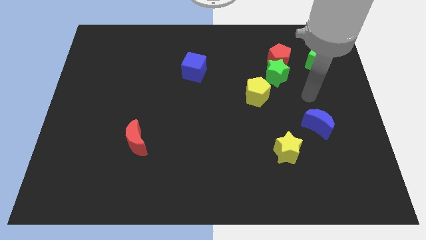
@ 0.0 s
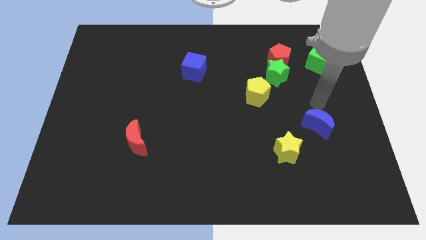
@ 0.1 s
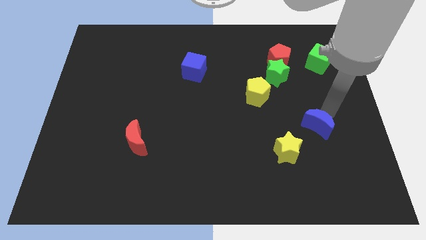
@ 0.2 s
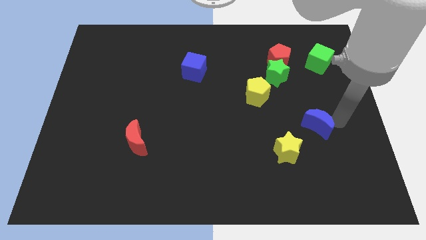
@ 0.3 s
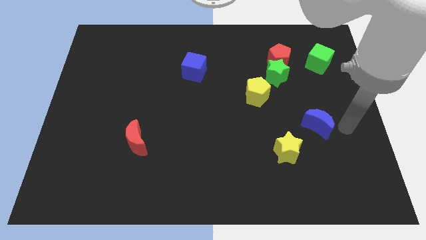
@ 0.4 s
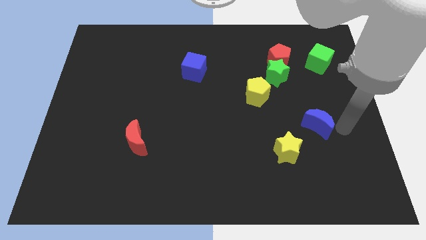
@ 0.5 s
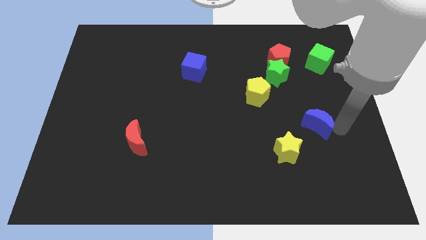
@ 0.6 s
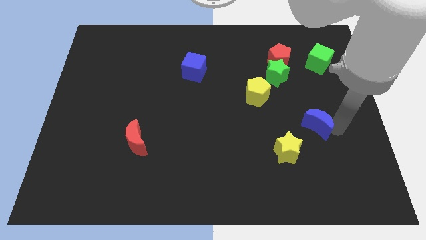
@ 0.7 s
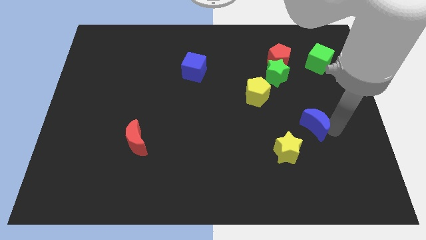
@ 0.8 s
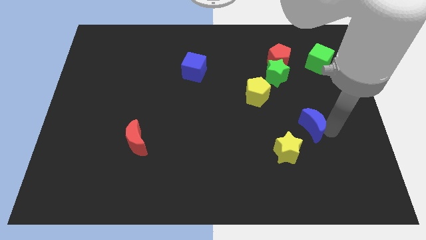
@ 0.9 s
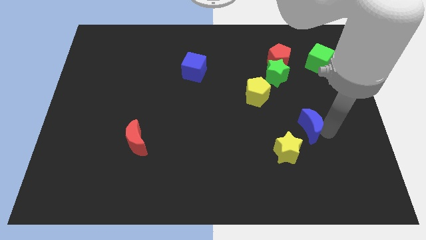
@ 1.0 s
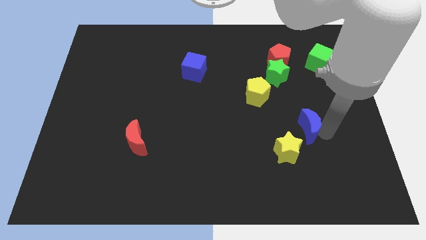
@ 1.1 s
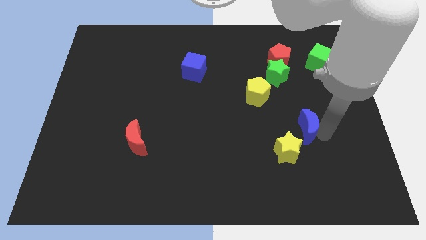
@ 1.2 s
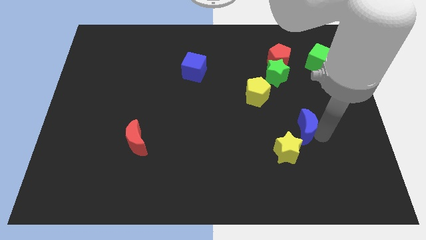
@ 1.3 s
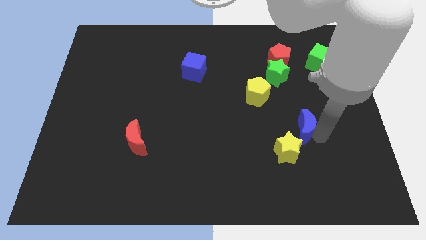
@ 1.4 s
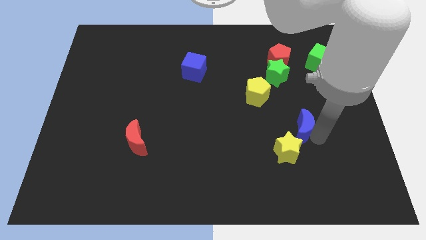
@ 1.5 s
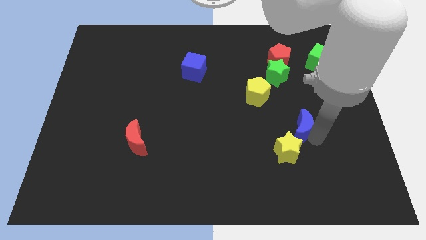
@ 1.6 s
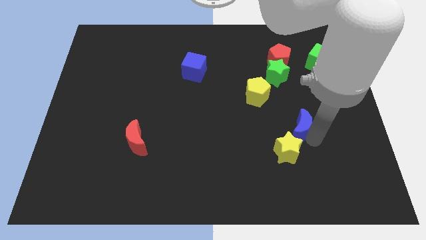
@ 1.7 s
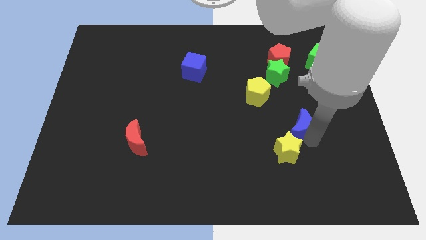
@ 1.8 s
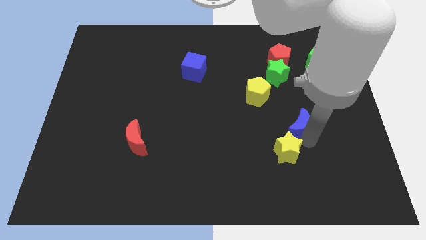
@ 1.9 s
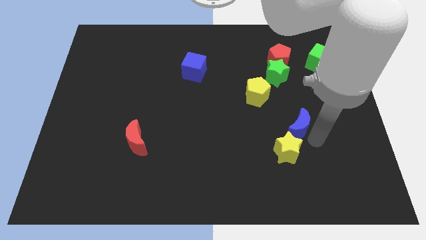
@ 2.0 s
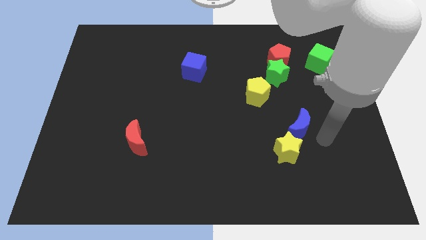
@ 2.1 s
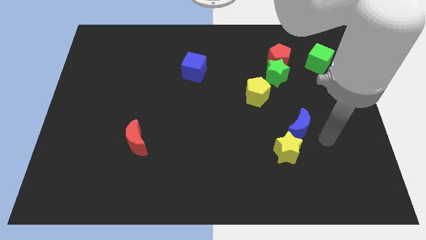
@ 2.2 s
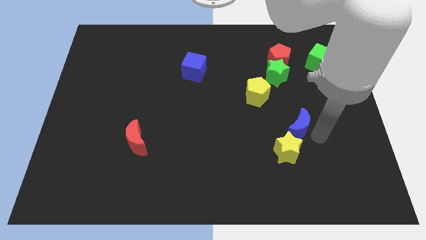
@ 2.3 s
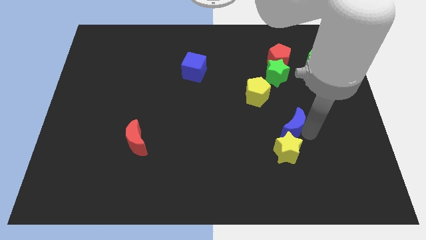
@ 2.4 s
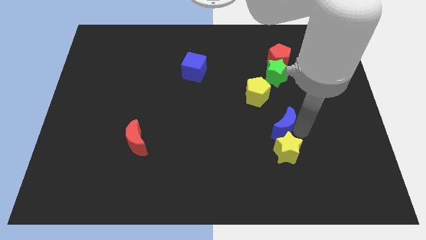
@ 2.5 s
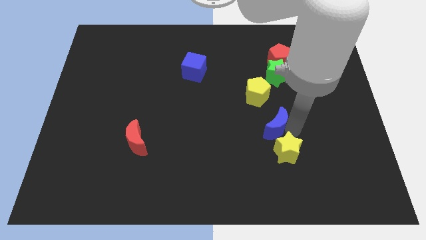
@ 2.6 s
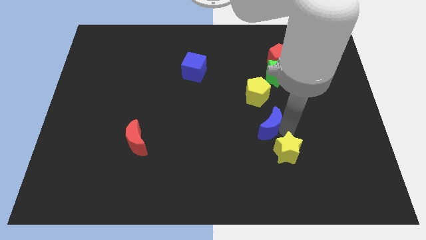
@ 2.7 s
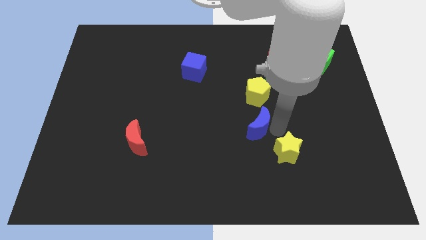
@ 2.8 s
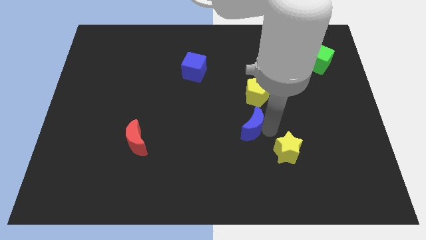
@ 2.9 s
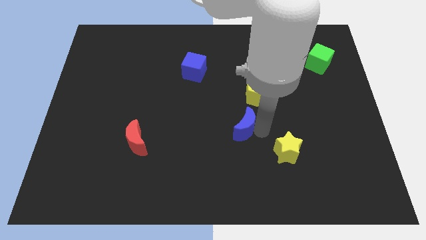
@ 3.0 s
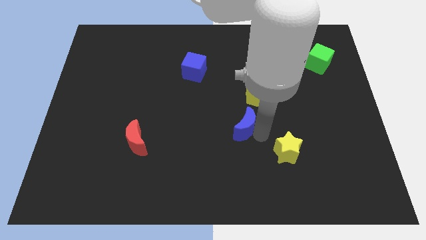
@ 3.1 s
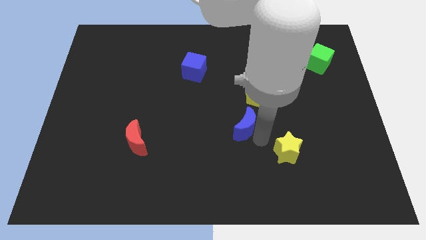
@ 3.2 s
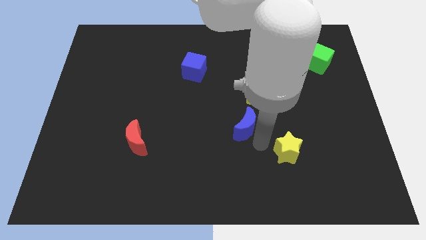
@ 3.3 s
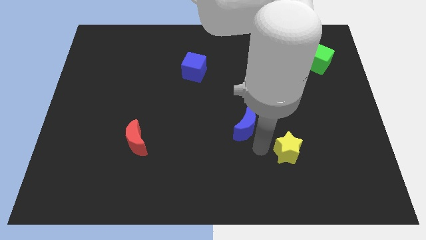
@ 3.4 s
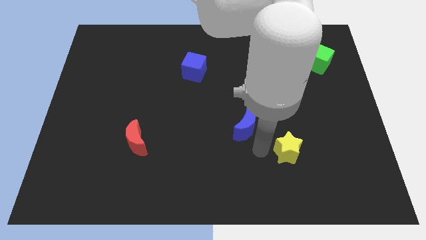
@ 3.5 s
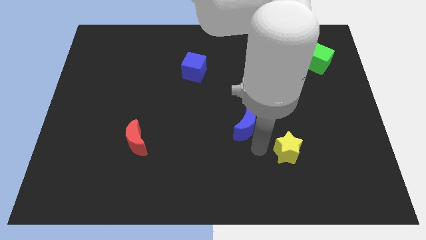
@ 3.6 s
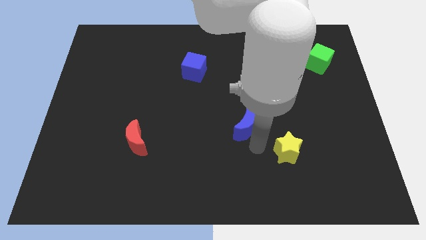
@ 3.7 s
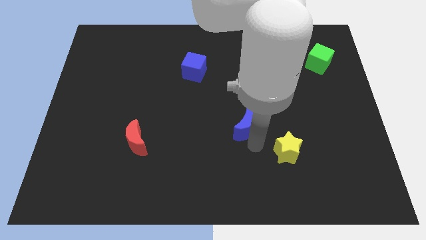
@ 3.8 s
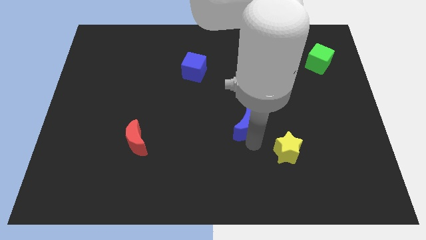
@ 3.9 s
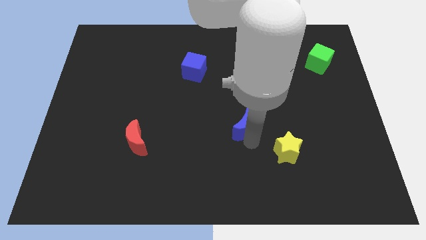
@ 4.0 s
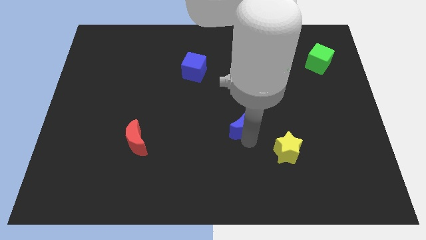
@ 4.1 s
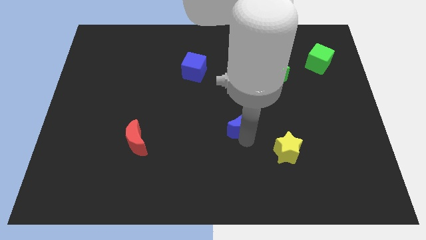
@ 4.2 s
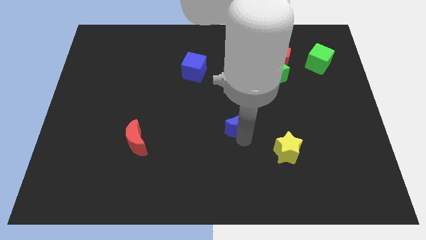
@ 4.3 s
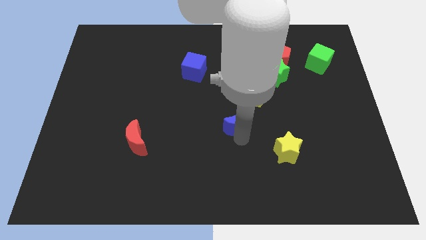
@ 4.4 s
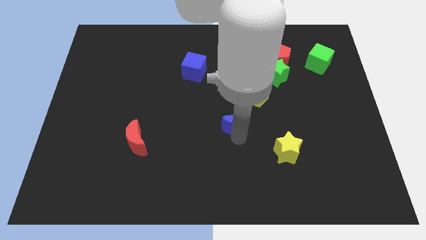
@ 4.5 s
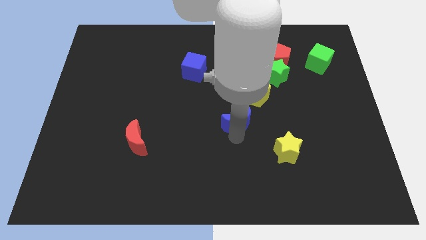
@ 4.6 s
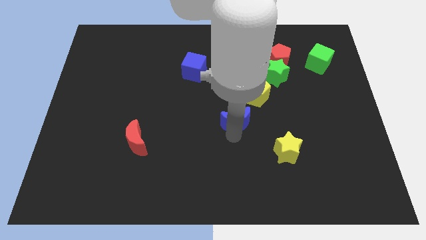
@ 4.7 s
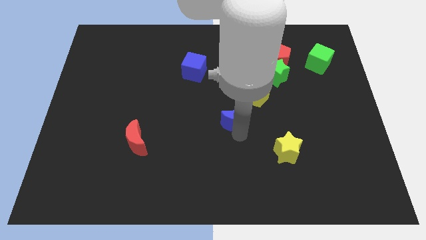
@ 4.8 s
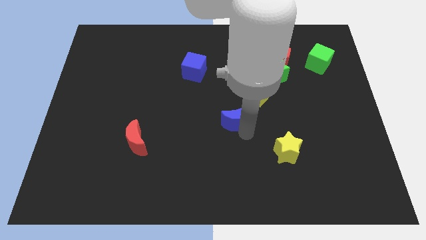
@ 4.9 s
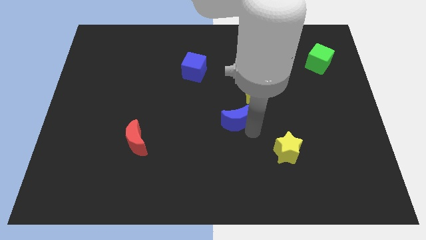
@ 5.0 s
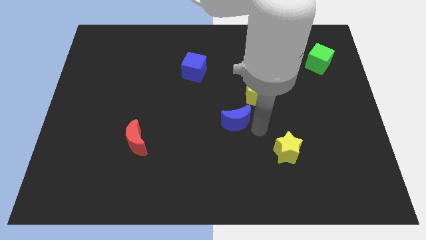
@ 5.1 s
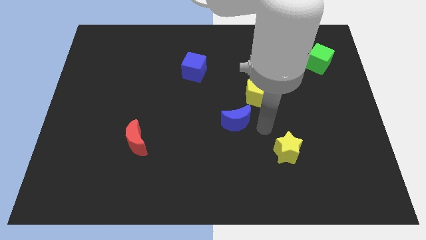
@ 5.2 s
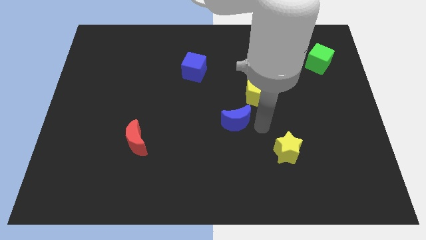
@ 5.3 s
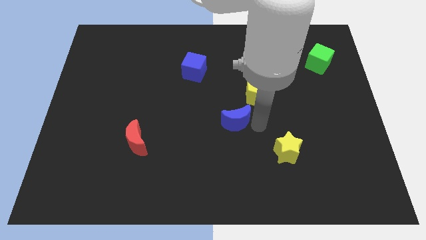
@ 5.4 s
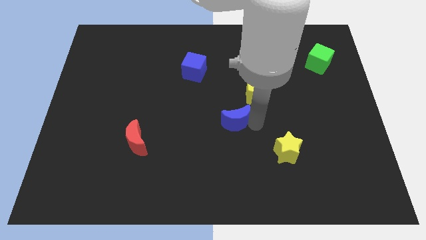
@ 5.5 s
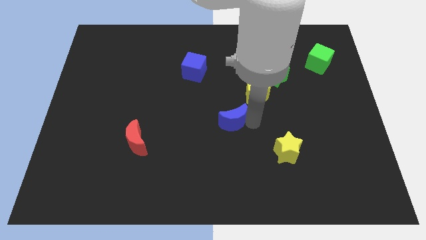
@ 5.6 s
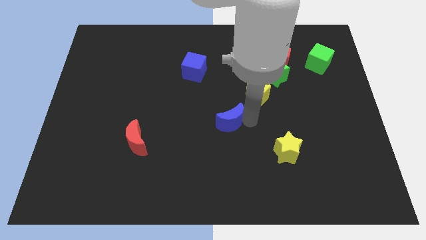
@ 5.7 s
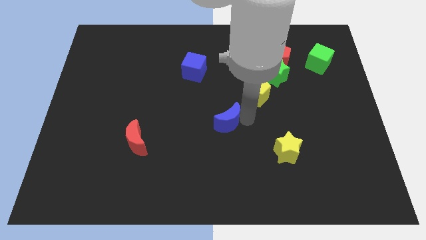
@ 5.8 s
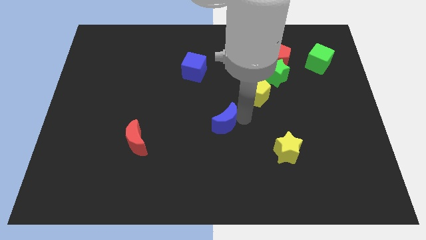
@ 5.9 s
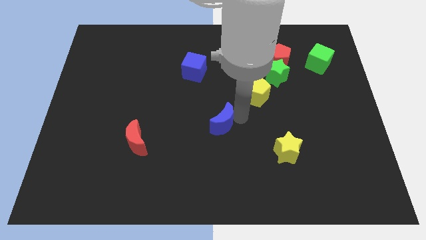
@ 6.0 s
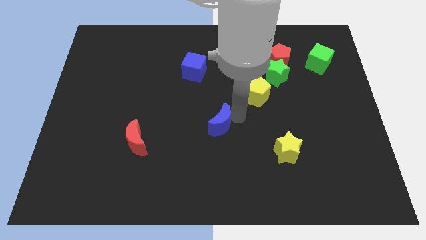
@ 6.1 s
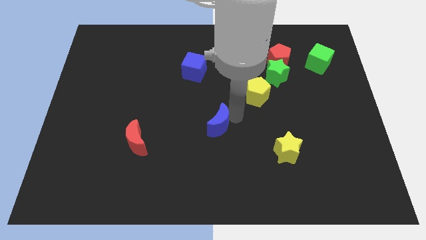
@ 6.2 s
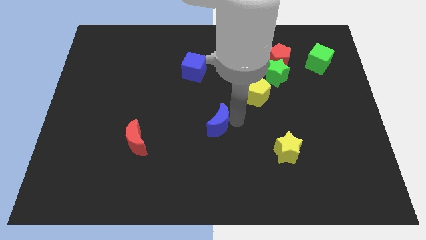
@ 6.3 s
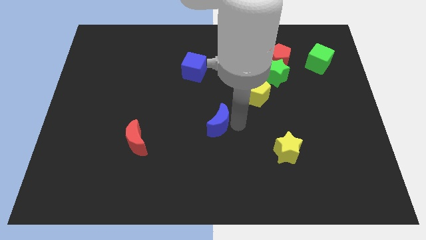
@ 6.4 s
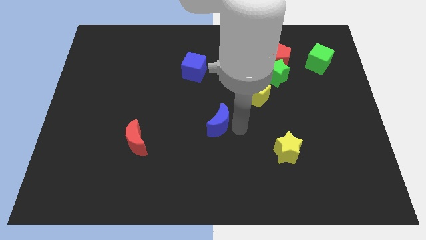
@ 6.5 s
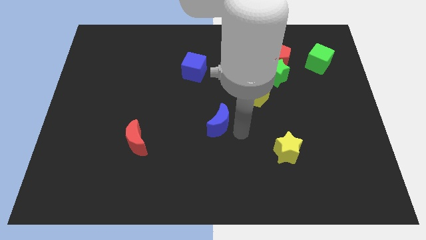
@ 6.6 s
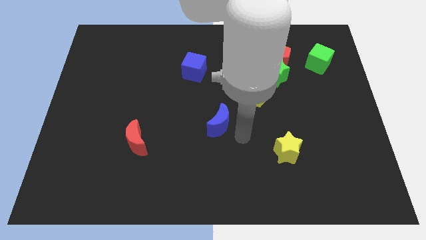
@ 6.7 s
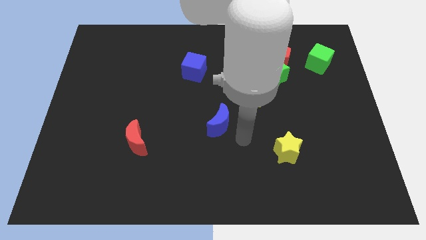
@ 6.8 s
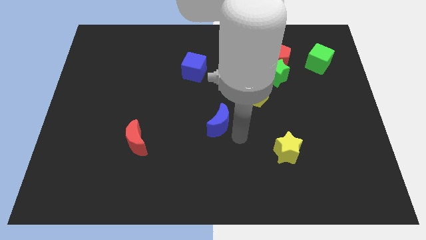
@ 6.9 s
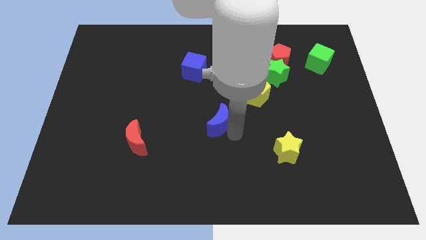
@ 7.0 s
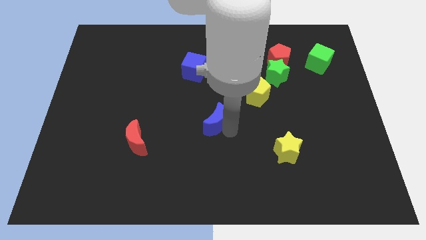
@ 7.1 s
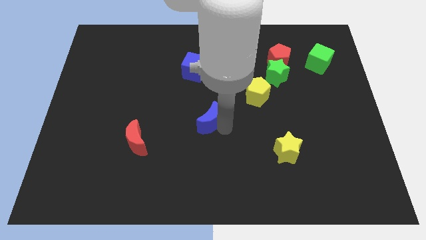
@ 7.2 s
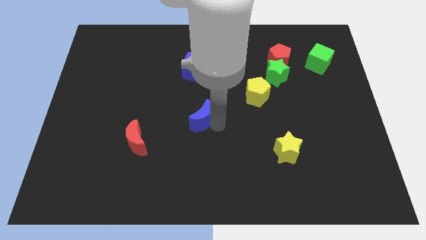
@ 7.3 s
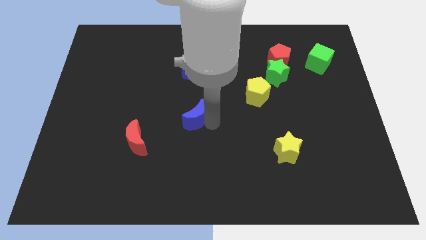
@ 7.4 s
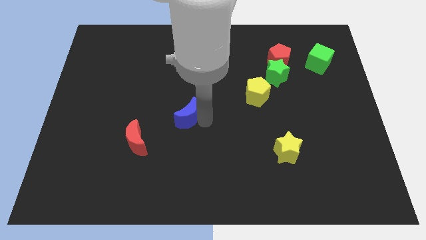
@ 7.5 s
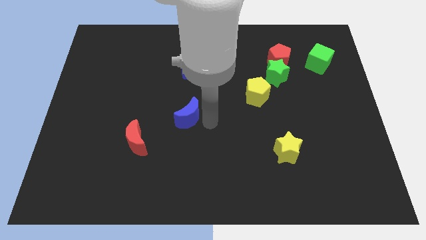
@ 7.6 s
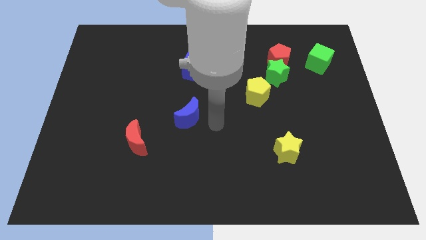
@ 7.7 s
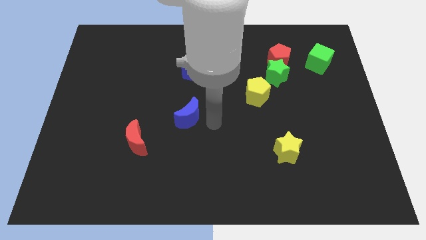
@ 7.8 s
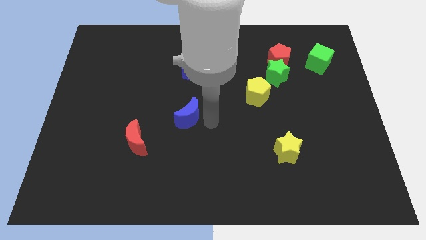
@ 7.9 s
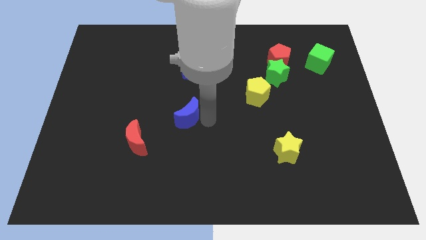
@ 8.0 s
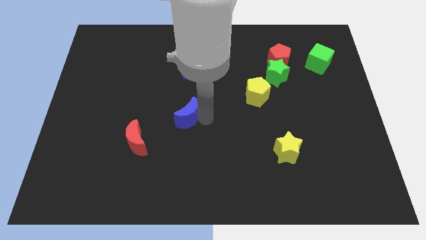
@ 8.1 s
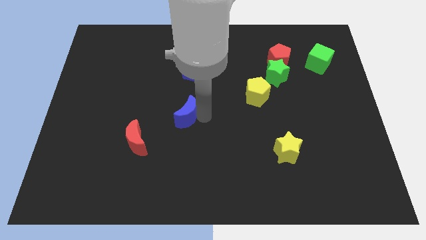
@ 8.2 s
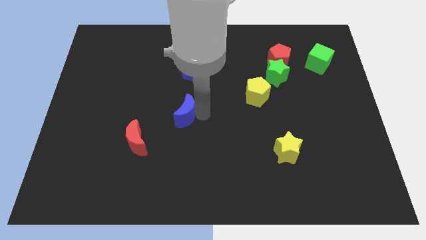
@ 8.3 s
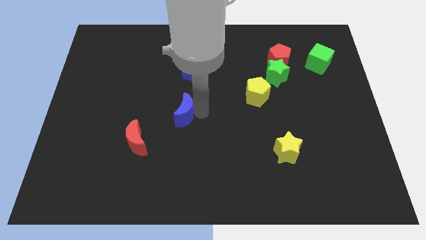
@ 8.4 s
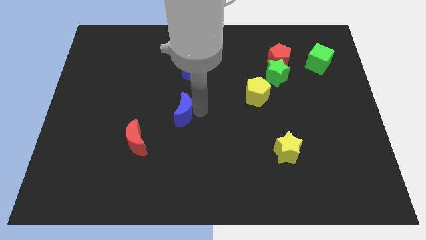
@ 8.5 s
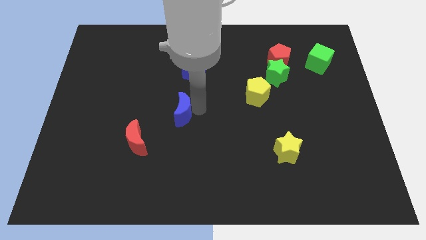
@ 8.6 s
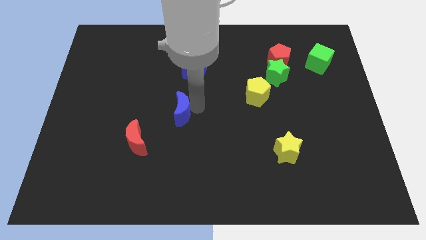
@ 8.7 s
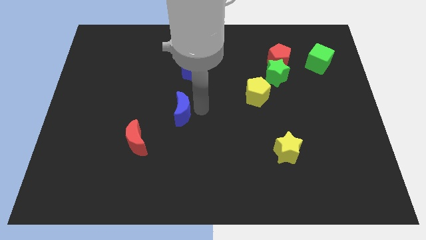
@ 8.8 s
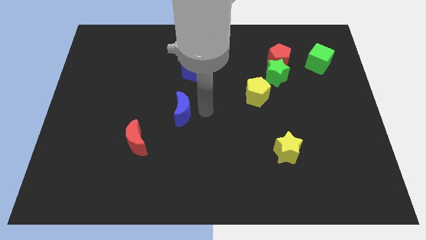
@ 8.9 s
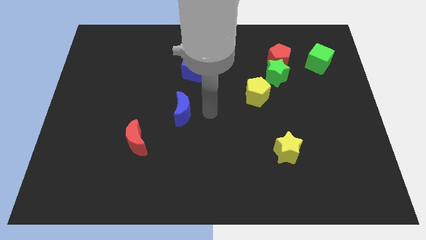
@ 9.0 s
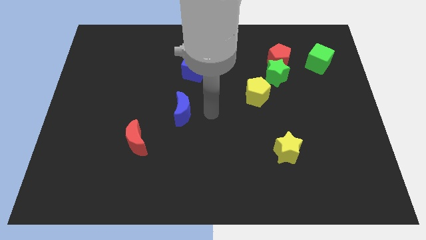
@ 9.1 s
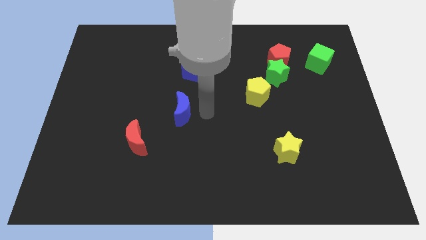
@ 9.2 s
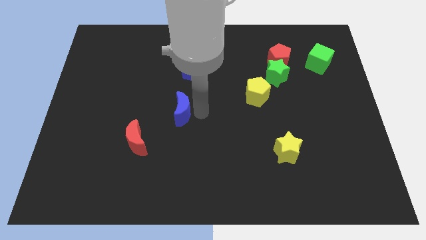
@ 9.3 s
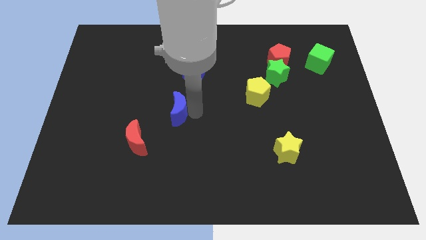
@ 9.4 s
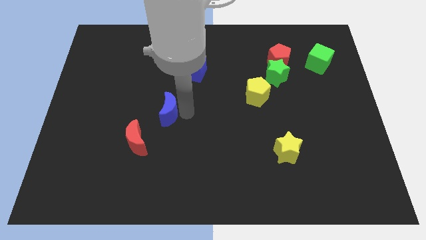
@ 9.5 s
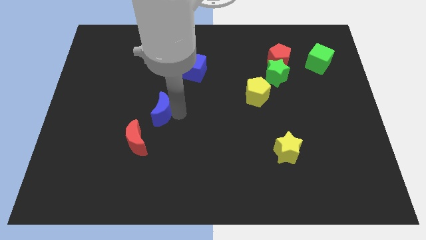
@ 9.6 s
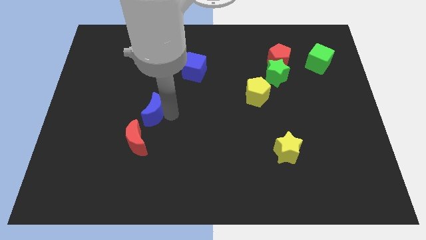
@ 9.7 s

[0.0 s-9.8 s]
move the blue moon to the top of the red moon
